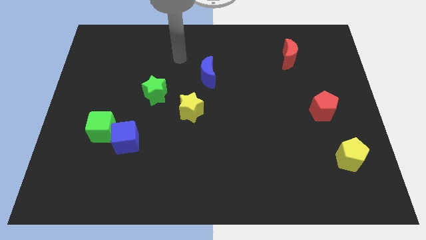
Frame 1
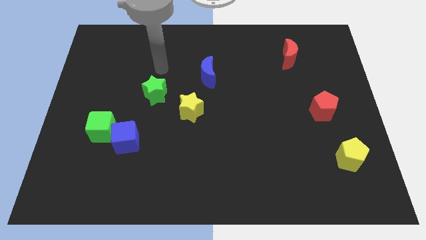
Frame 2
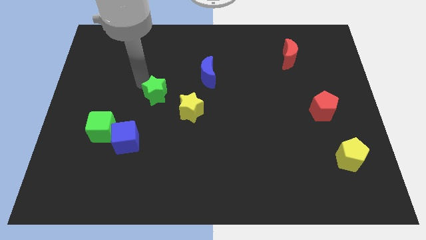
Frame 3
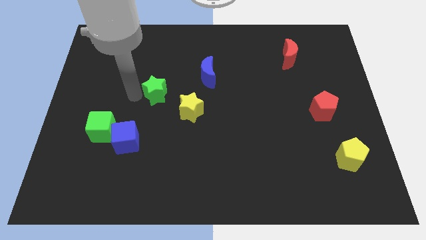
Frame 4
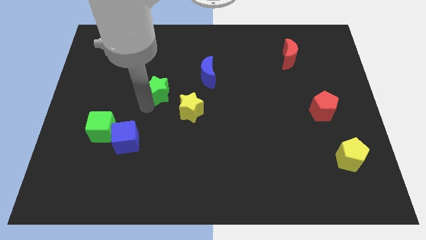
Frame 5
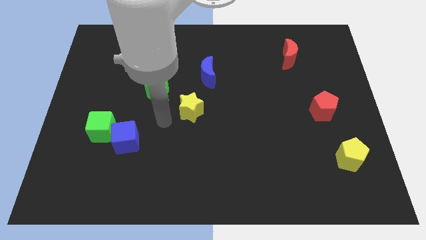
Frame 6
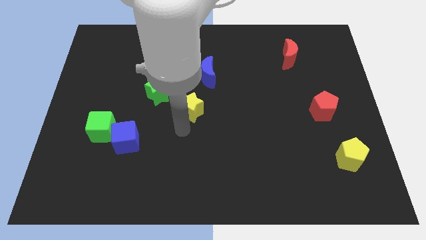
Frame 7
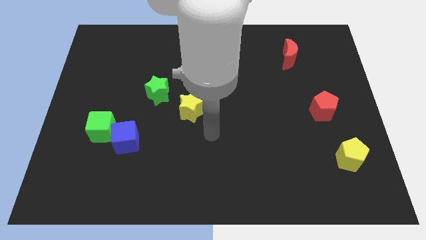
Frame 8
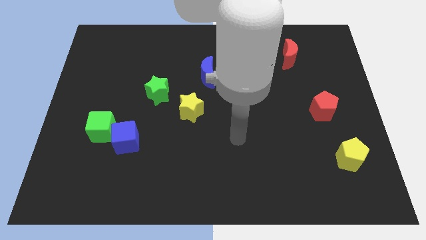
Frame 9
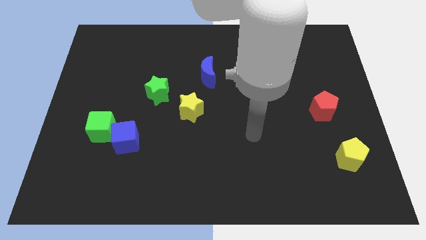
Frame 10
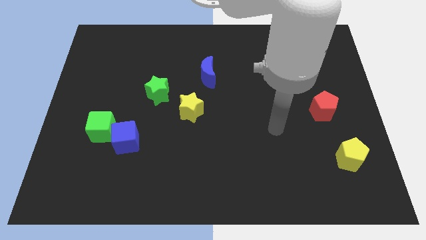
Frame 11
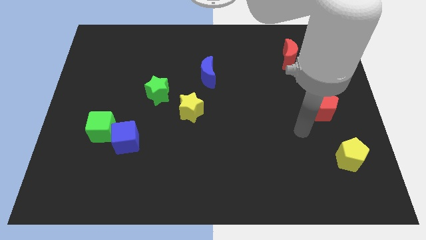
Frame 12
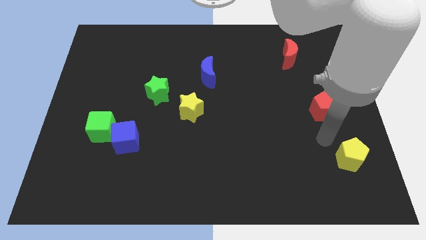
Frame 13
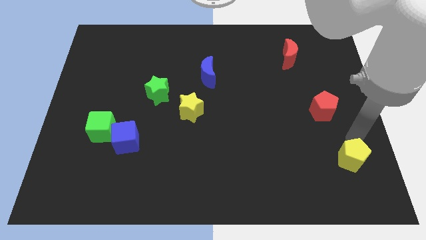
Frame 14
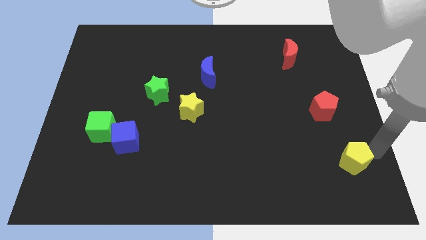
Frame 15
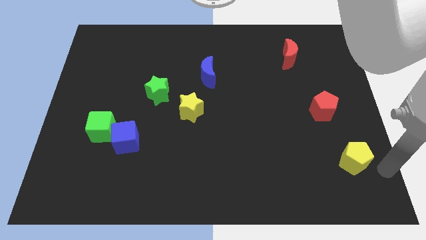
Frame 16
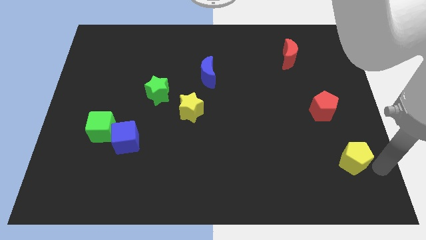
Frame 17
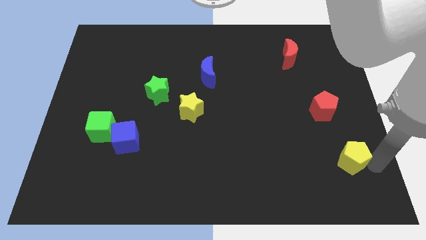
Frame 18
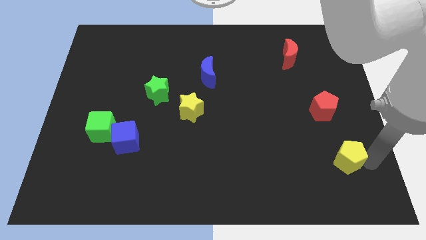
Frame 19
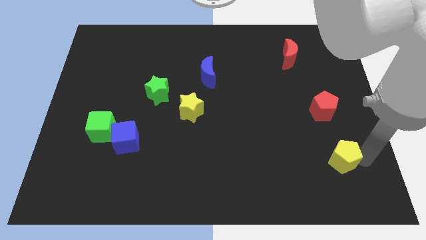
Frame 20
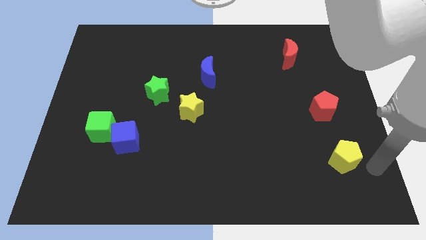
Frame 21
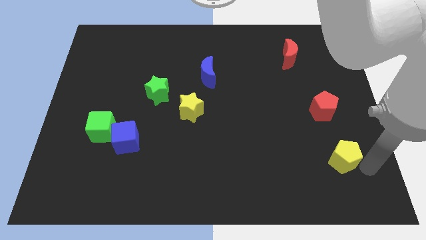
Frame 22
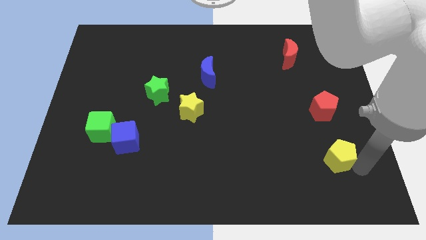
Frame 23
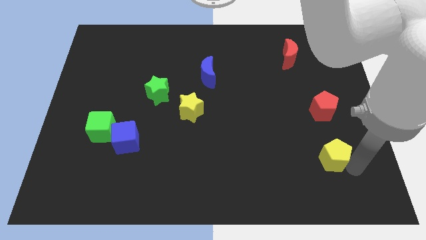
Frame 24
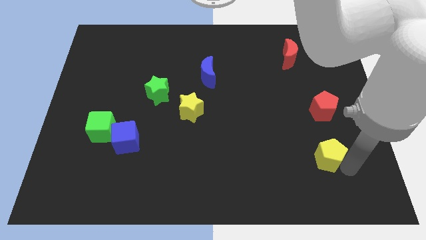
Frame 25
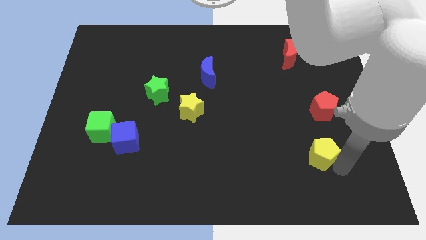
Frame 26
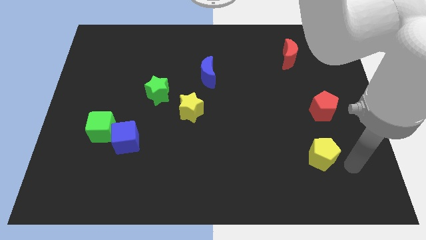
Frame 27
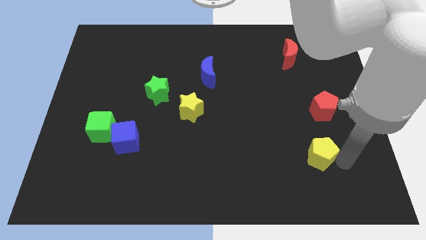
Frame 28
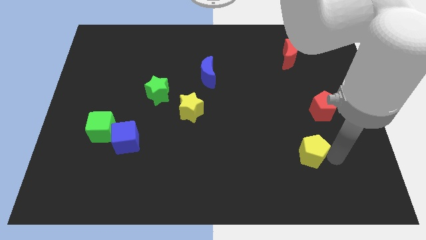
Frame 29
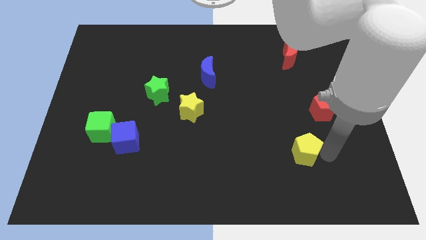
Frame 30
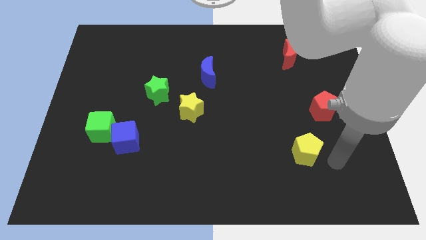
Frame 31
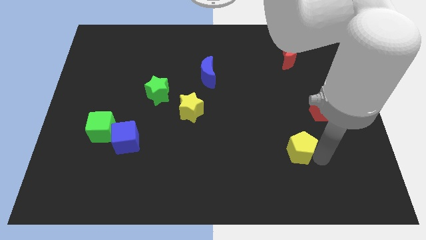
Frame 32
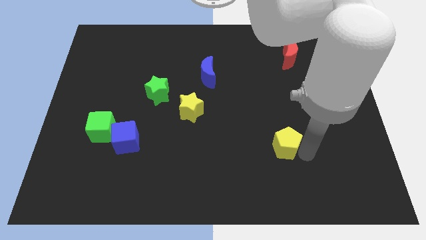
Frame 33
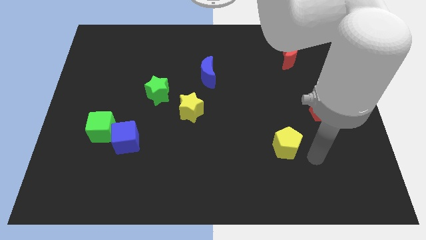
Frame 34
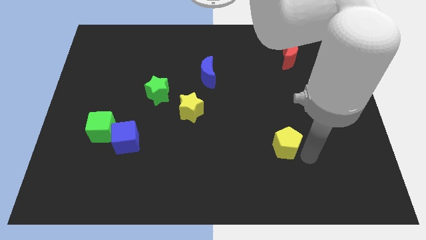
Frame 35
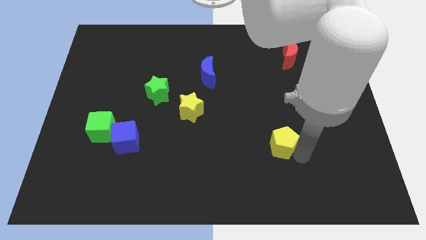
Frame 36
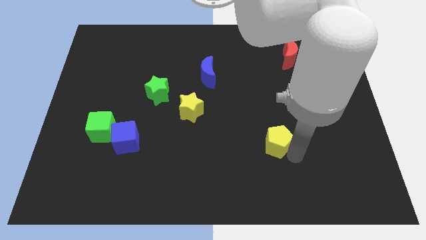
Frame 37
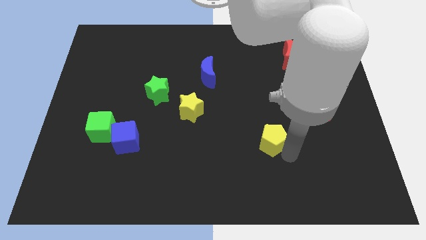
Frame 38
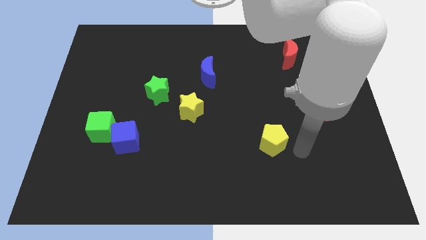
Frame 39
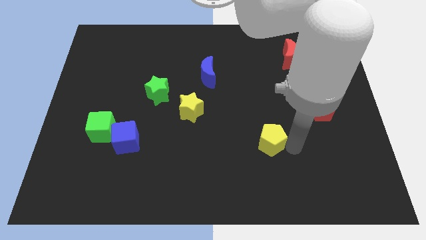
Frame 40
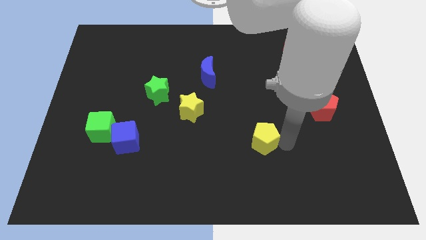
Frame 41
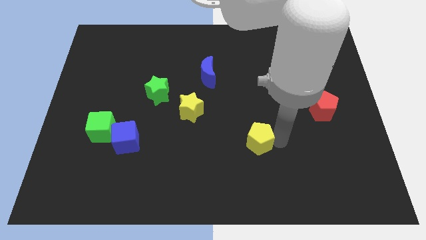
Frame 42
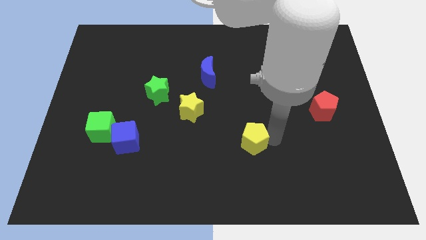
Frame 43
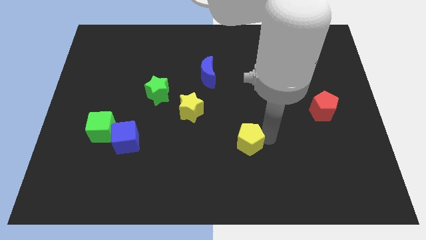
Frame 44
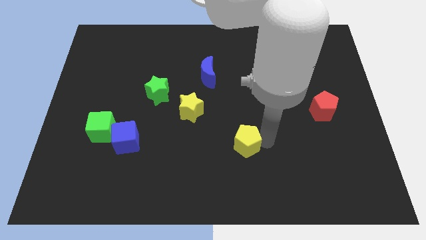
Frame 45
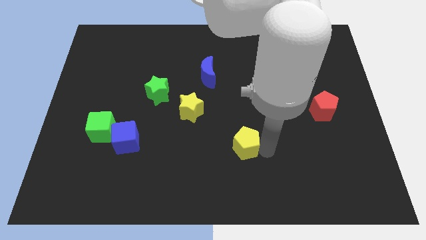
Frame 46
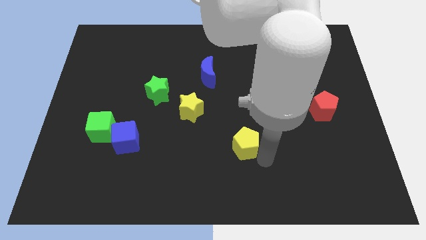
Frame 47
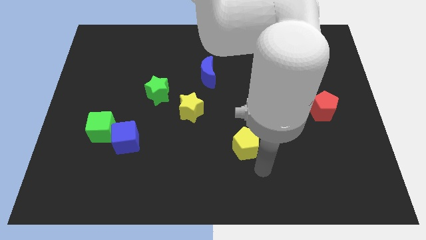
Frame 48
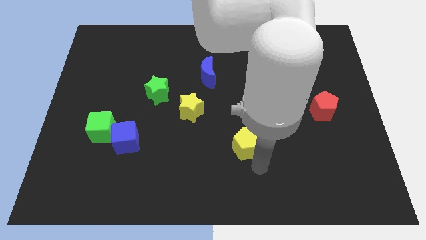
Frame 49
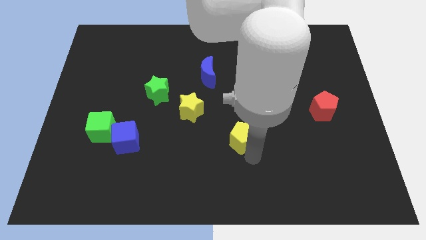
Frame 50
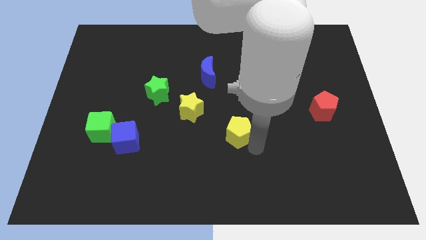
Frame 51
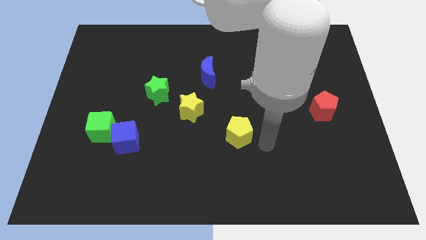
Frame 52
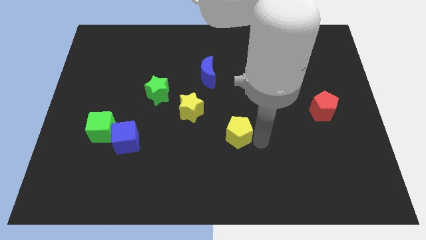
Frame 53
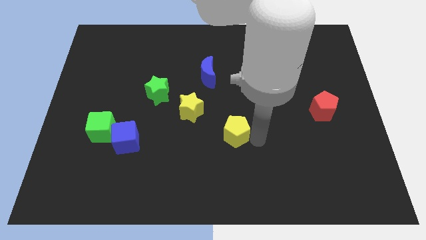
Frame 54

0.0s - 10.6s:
push the yellow pentagon to the bottom right side of the yellow star

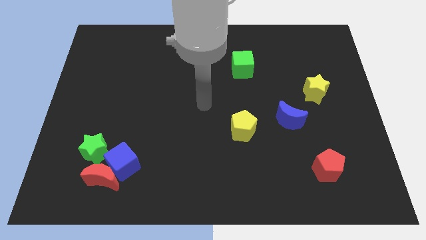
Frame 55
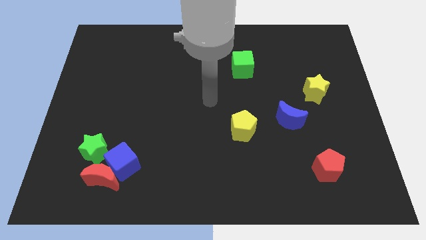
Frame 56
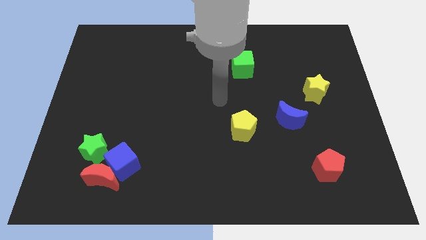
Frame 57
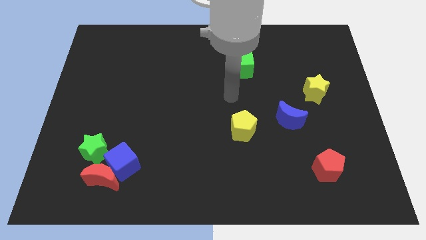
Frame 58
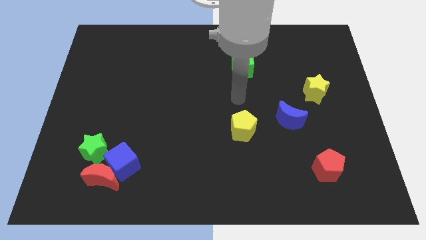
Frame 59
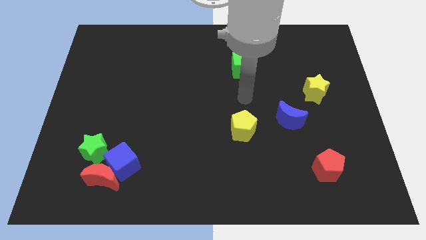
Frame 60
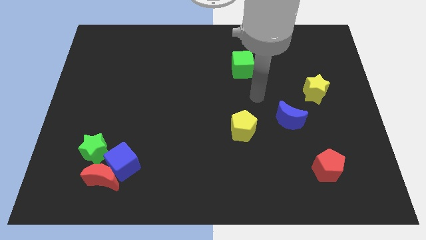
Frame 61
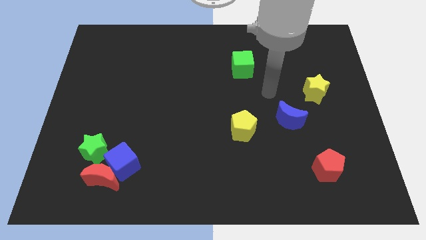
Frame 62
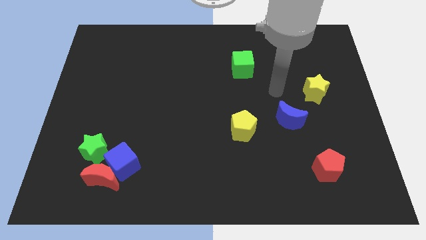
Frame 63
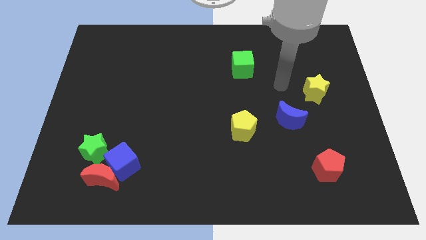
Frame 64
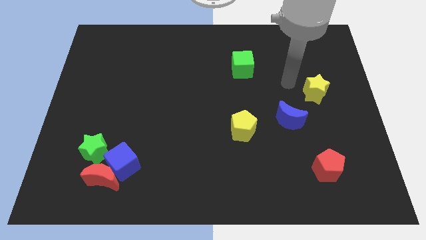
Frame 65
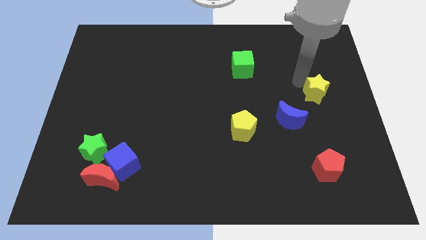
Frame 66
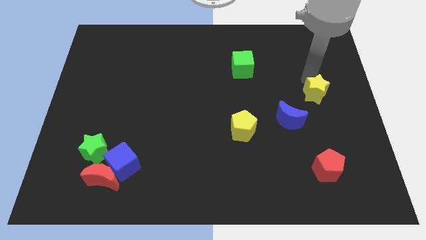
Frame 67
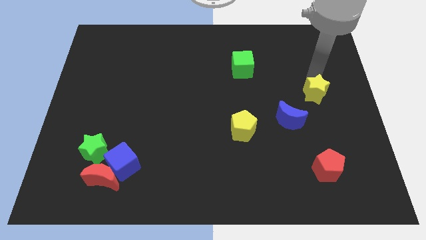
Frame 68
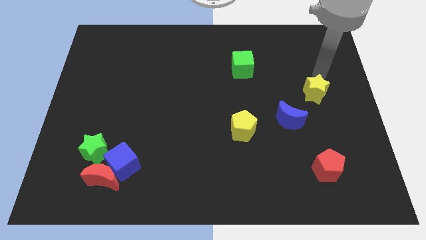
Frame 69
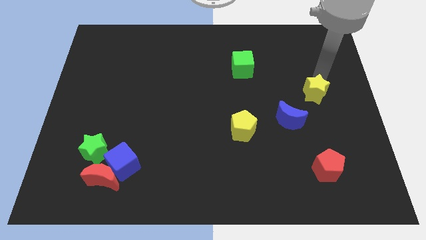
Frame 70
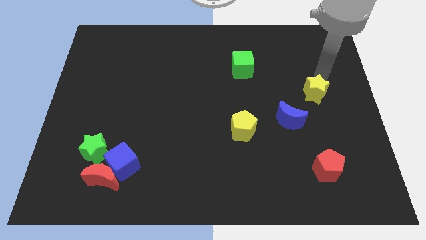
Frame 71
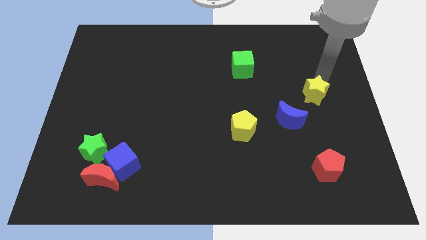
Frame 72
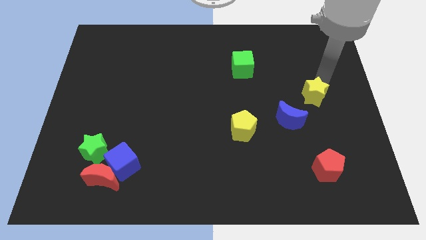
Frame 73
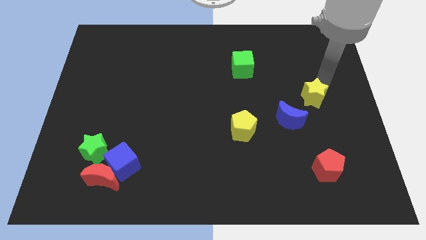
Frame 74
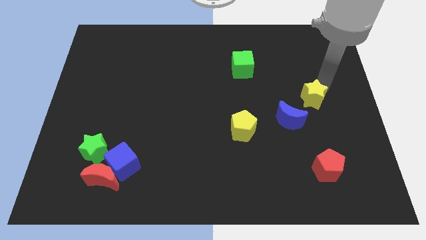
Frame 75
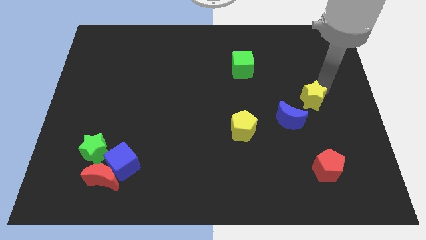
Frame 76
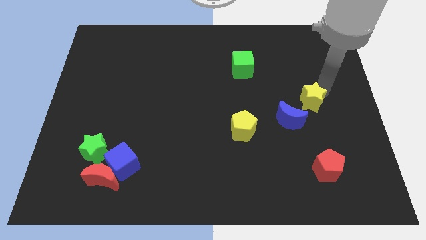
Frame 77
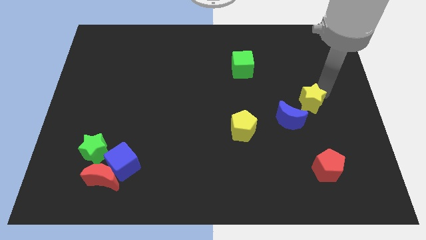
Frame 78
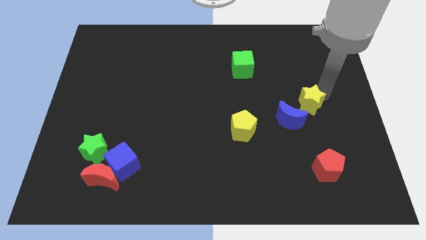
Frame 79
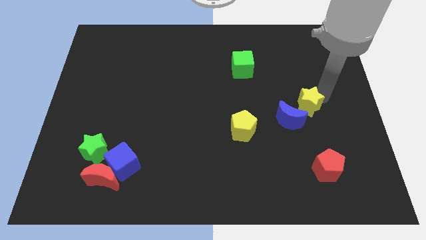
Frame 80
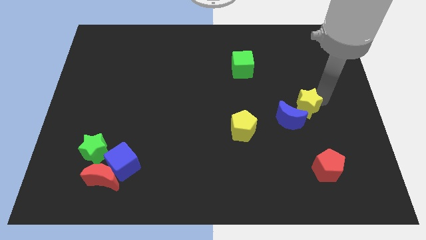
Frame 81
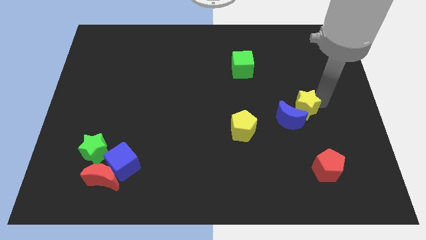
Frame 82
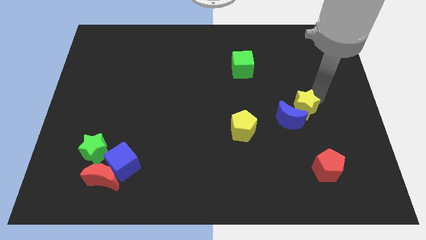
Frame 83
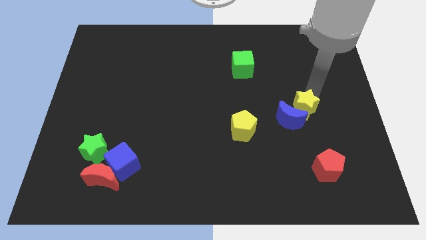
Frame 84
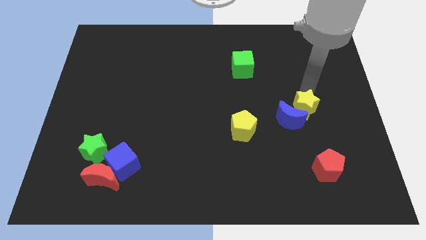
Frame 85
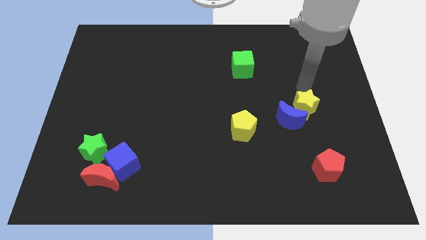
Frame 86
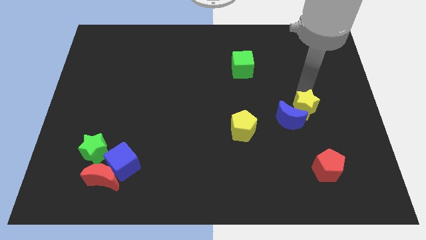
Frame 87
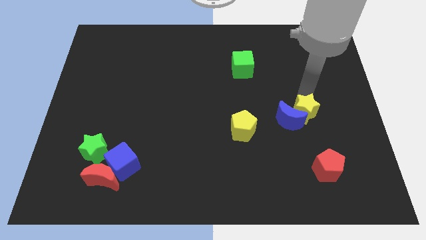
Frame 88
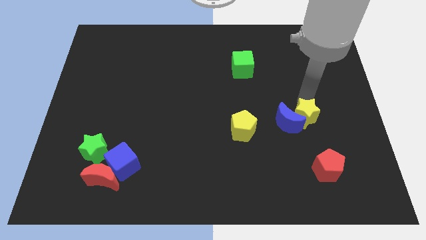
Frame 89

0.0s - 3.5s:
move the yellow star right of the yellow pentagon
